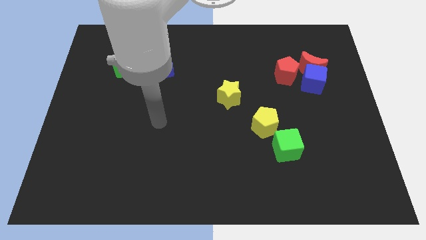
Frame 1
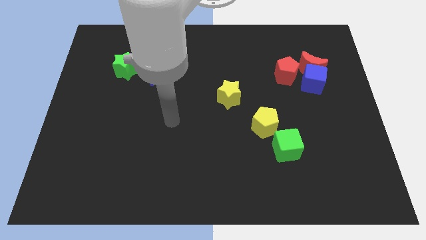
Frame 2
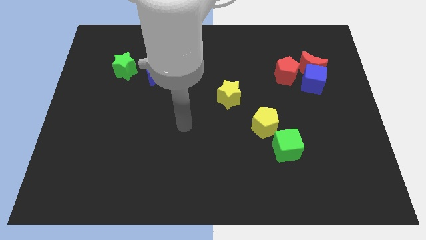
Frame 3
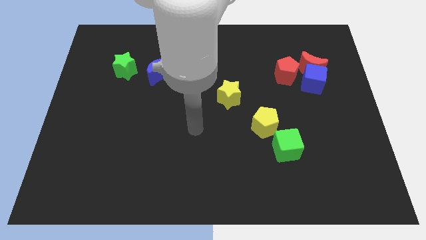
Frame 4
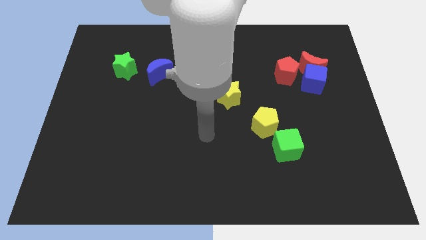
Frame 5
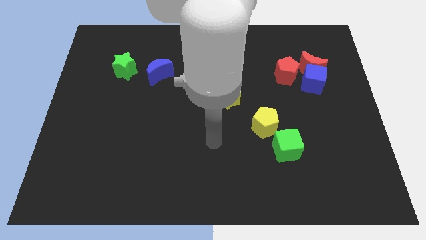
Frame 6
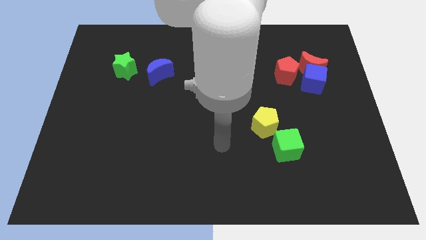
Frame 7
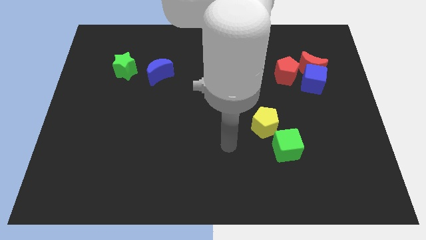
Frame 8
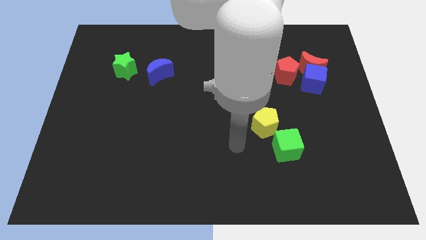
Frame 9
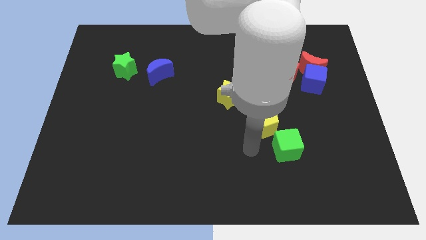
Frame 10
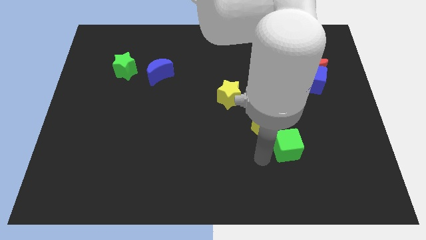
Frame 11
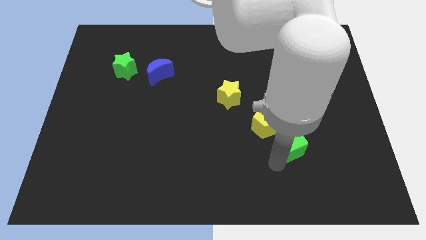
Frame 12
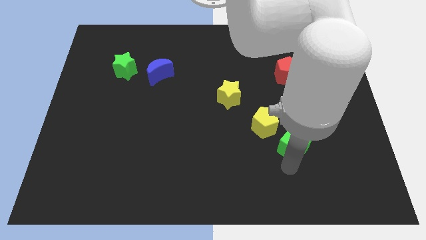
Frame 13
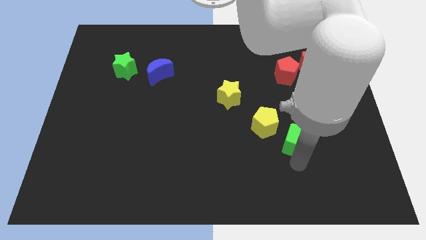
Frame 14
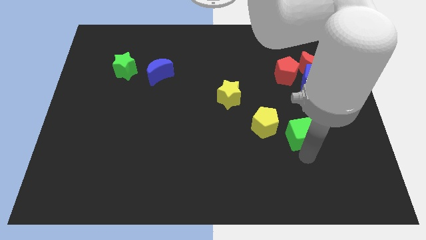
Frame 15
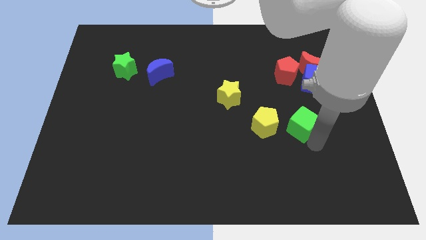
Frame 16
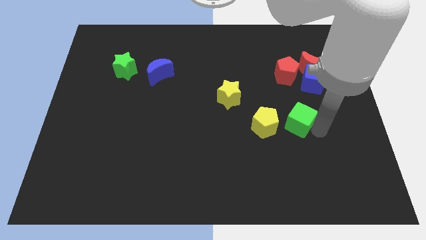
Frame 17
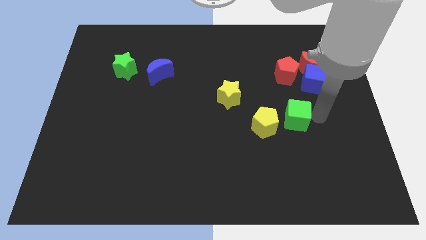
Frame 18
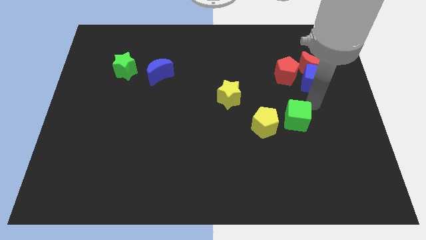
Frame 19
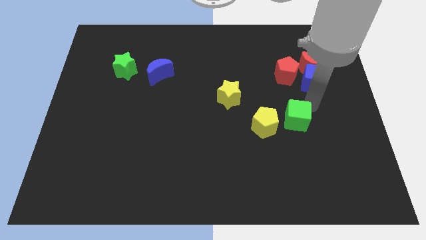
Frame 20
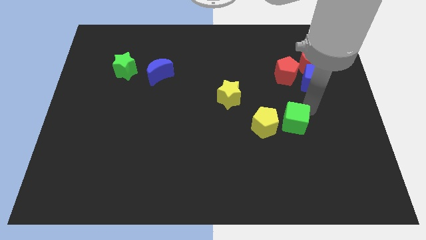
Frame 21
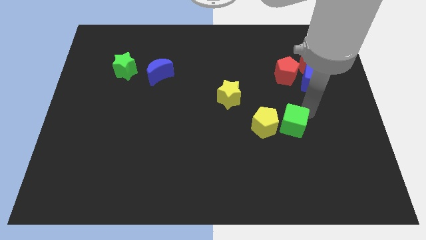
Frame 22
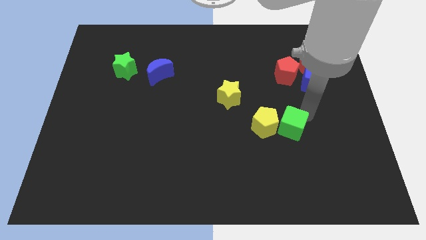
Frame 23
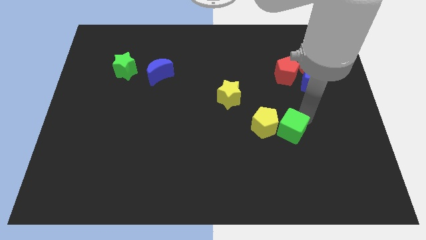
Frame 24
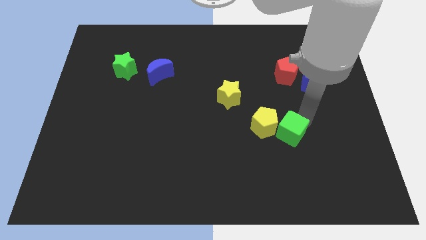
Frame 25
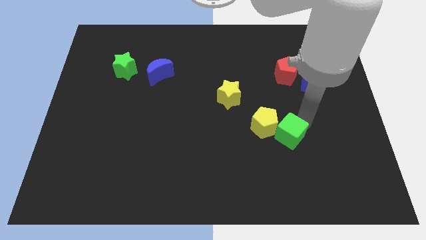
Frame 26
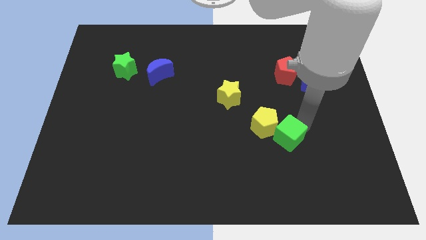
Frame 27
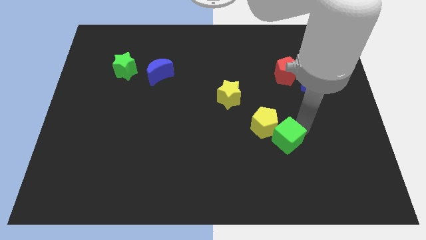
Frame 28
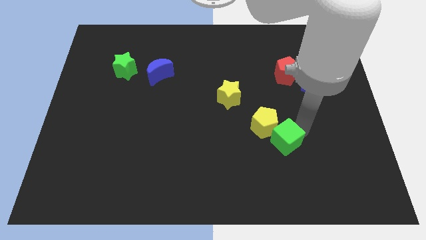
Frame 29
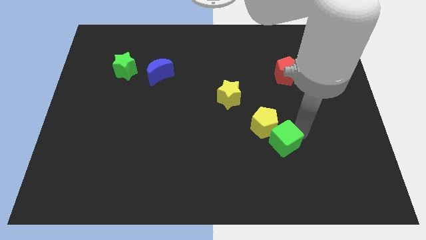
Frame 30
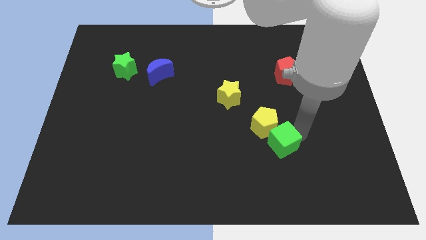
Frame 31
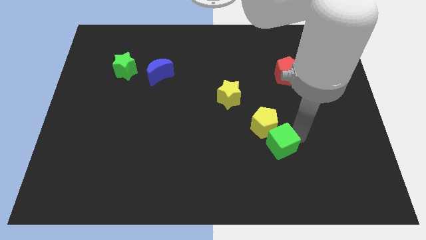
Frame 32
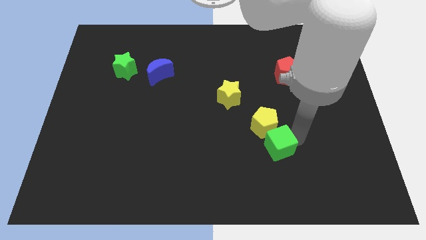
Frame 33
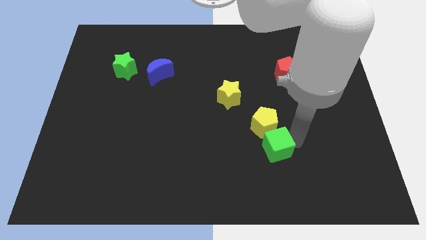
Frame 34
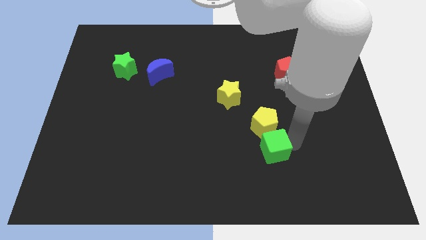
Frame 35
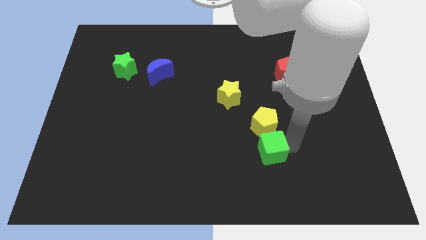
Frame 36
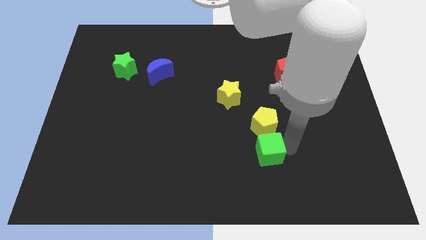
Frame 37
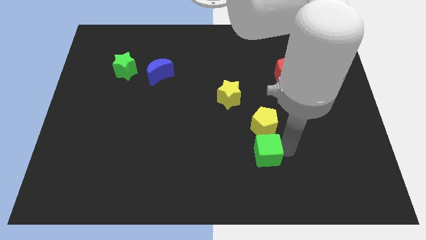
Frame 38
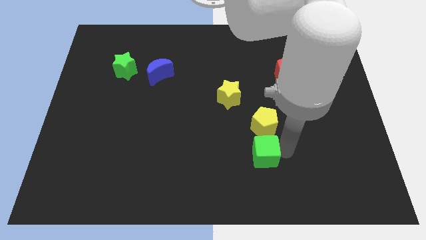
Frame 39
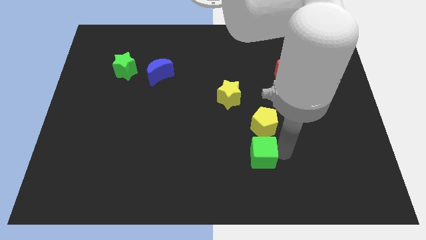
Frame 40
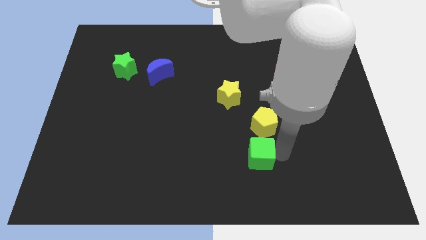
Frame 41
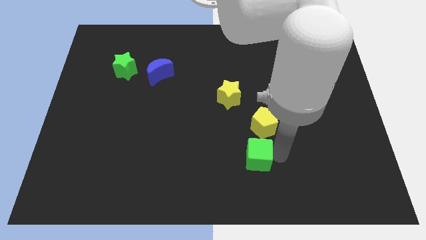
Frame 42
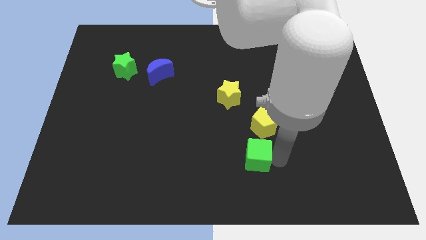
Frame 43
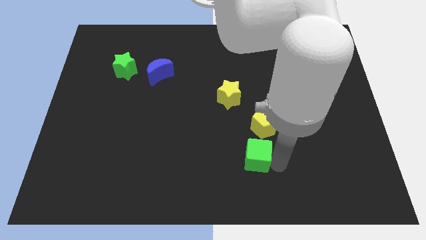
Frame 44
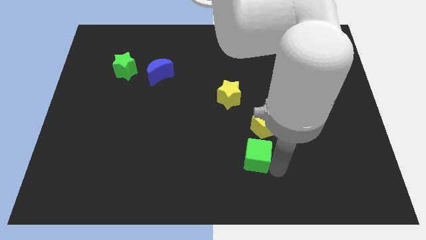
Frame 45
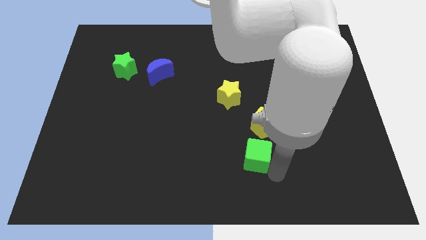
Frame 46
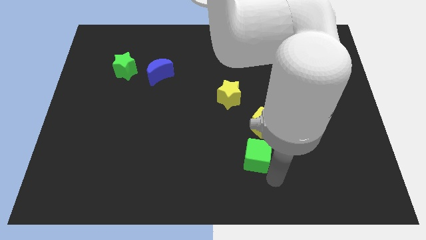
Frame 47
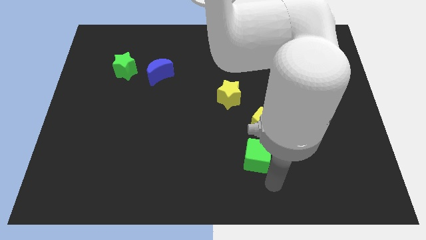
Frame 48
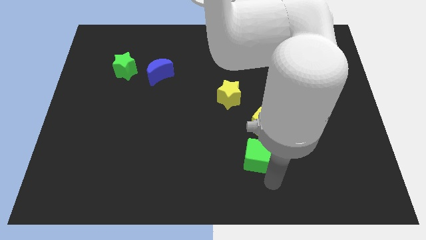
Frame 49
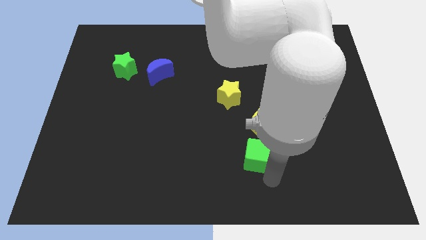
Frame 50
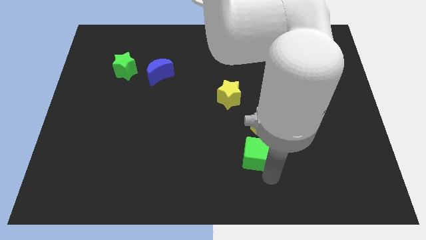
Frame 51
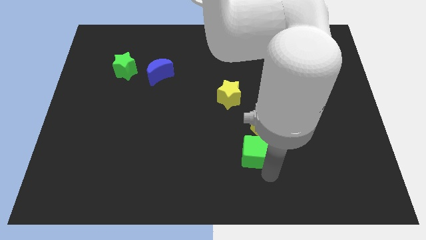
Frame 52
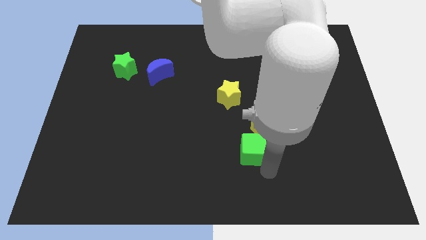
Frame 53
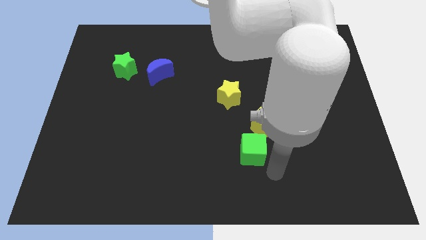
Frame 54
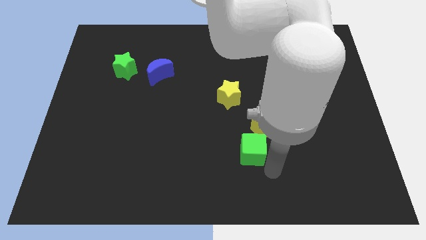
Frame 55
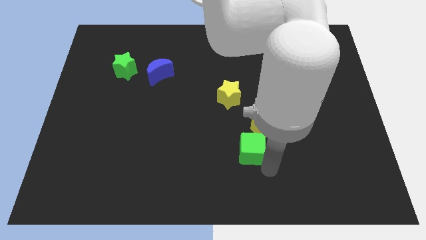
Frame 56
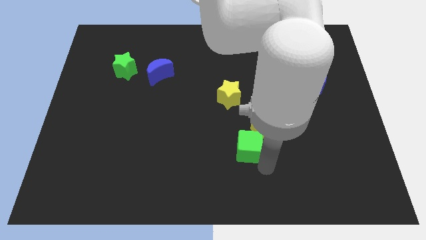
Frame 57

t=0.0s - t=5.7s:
move the green cube to the bottom of the yellow star

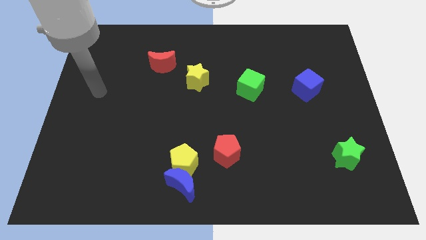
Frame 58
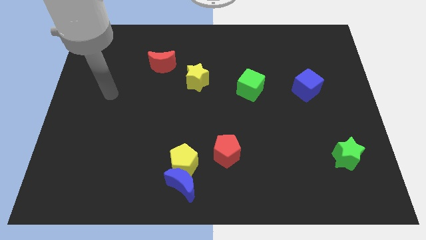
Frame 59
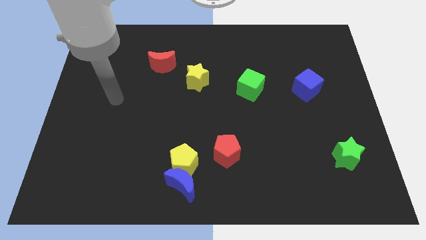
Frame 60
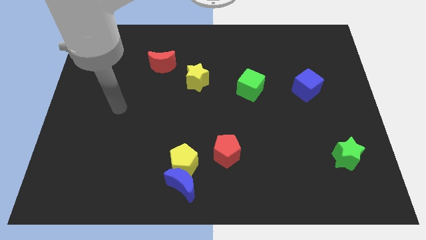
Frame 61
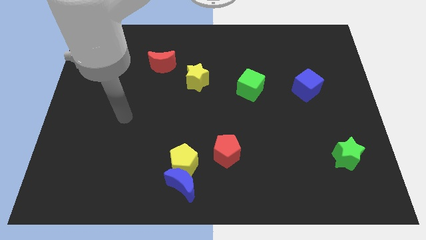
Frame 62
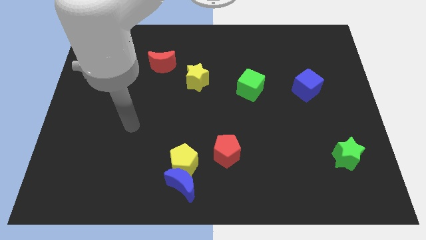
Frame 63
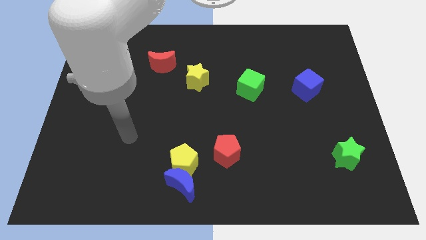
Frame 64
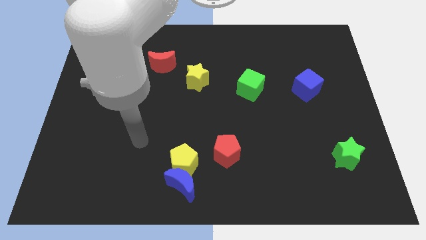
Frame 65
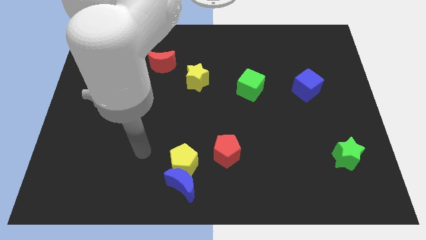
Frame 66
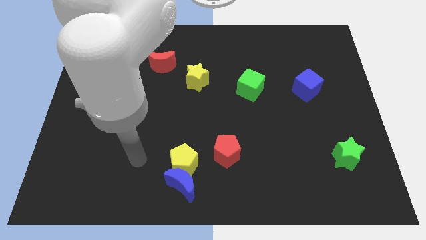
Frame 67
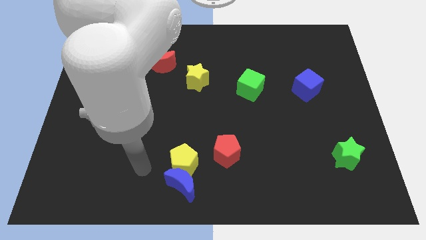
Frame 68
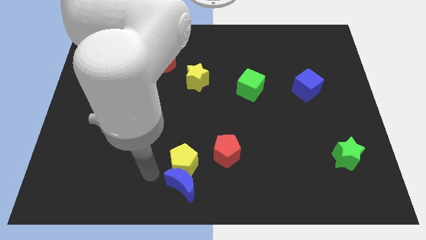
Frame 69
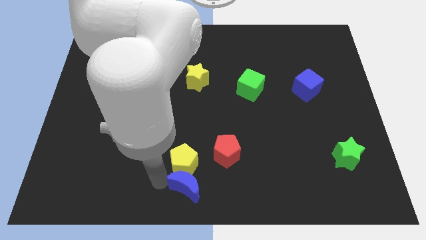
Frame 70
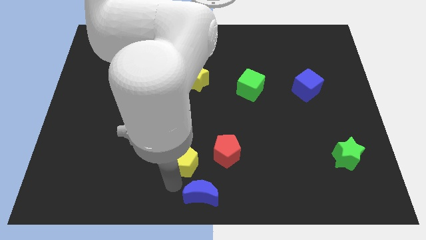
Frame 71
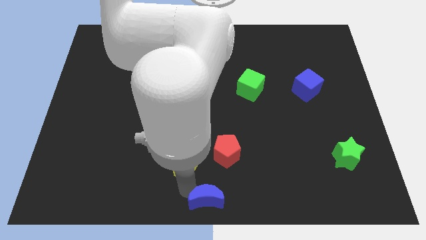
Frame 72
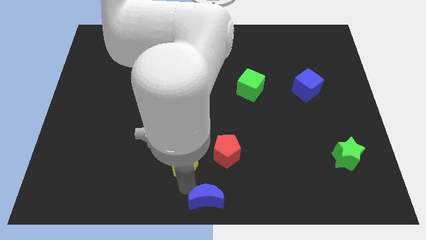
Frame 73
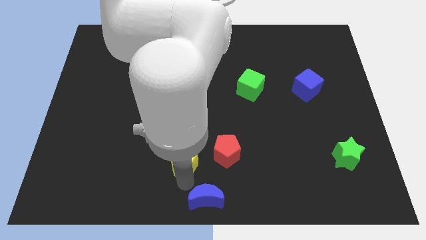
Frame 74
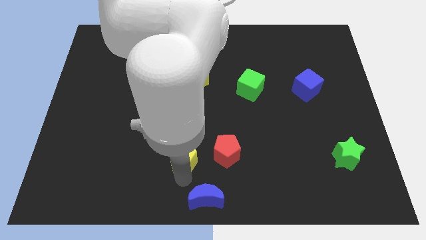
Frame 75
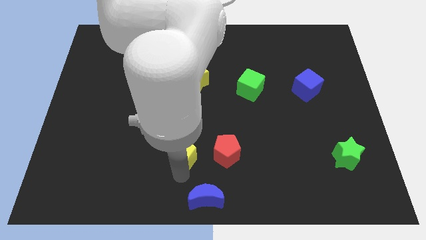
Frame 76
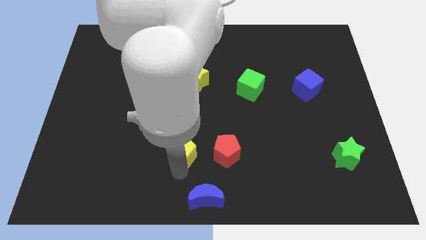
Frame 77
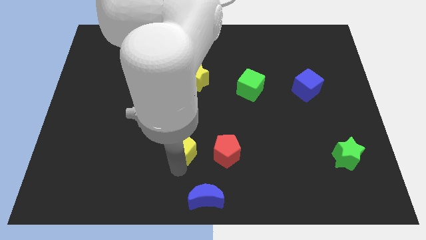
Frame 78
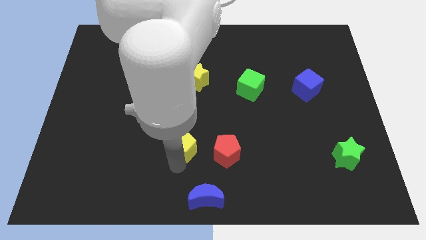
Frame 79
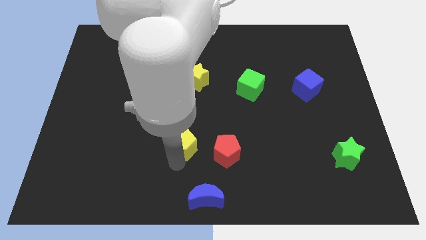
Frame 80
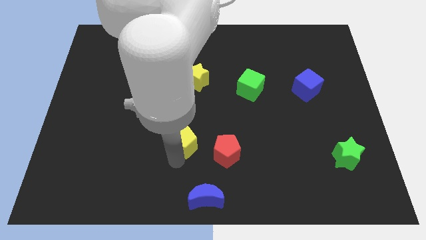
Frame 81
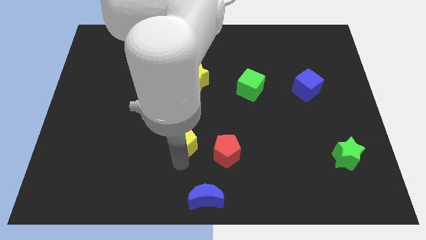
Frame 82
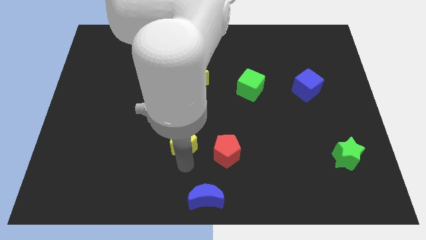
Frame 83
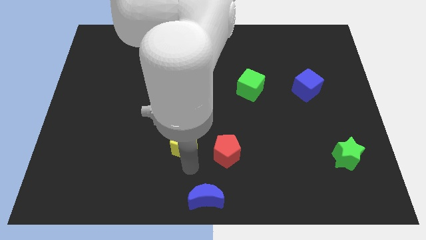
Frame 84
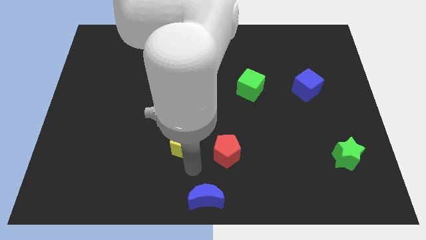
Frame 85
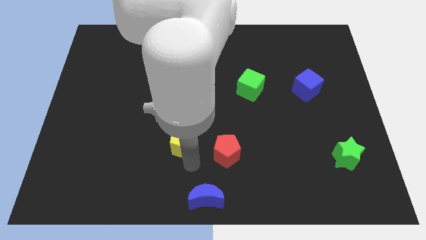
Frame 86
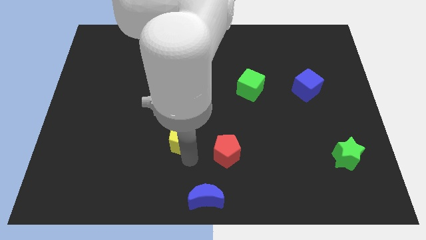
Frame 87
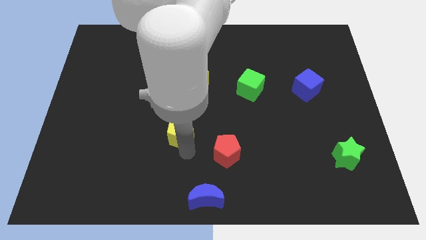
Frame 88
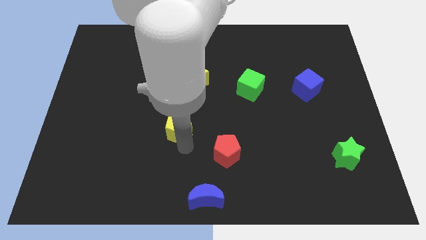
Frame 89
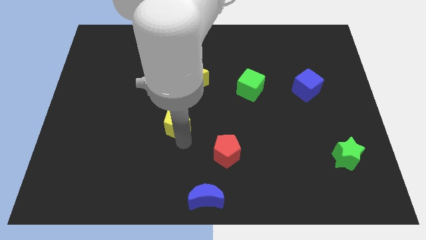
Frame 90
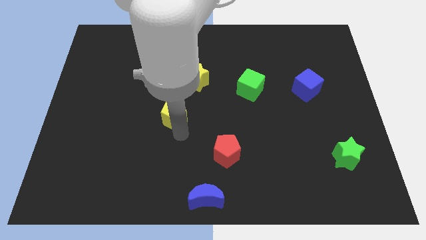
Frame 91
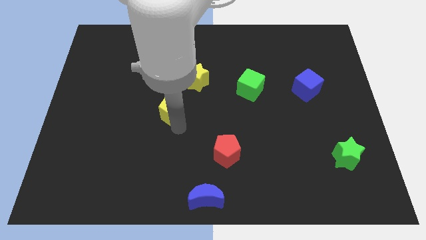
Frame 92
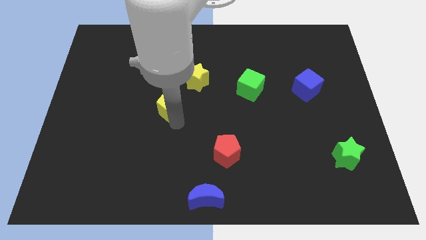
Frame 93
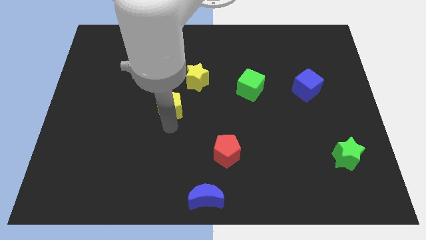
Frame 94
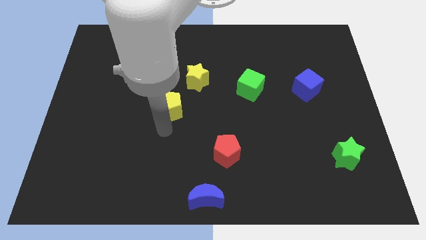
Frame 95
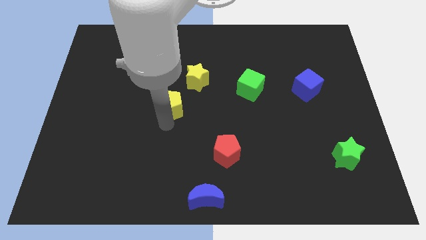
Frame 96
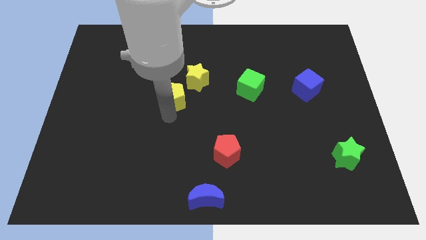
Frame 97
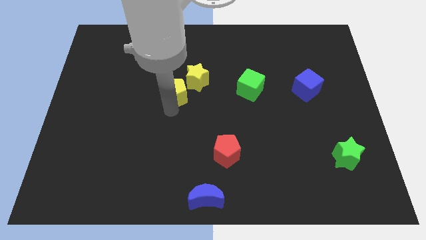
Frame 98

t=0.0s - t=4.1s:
push the yellow pentagon to the bottom right side of the red moon
